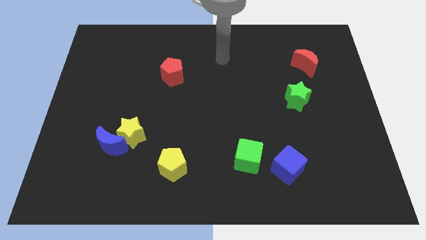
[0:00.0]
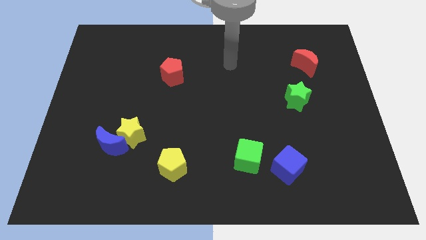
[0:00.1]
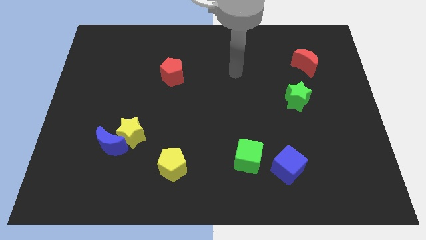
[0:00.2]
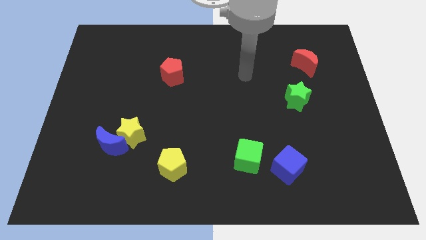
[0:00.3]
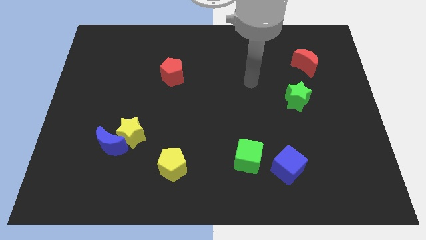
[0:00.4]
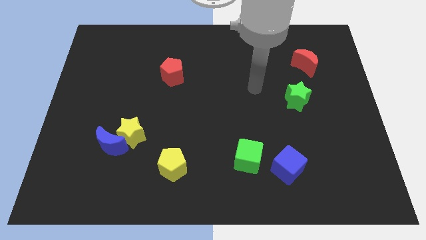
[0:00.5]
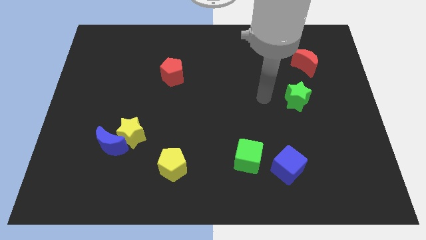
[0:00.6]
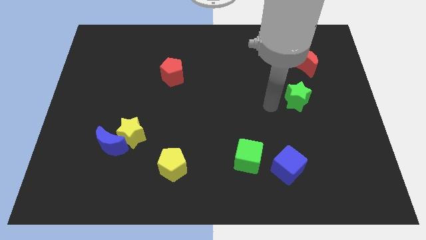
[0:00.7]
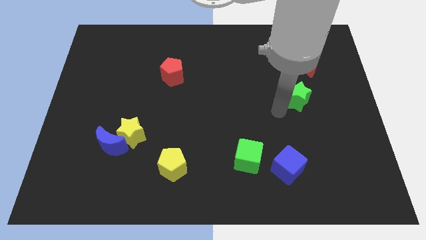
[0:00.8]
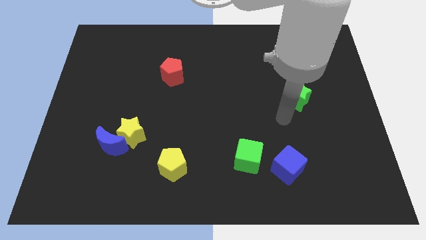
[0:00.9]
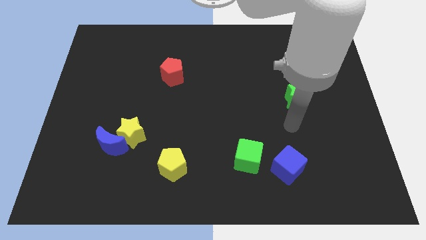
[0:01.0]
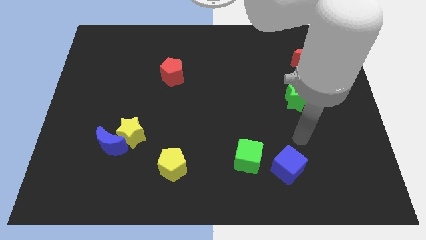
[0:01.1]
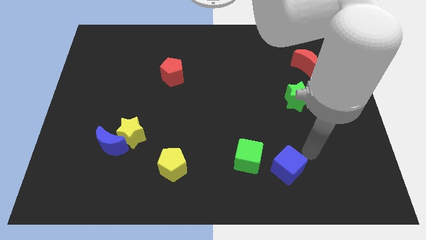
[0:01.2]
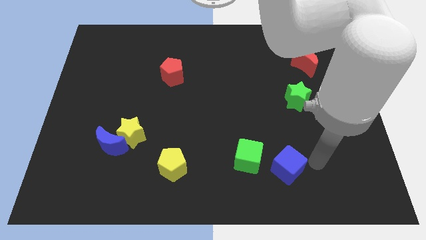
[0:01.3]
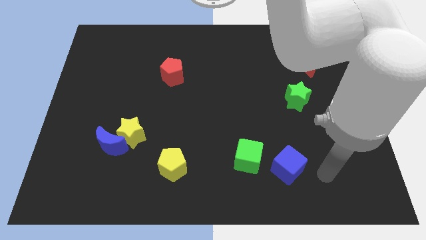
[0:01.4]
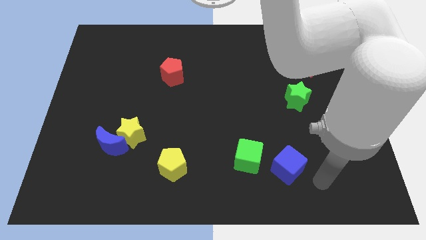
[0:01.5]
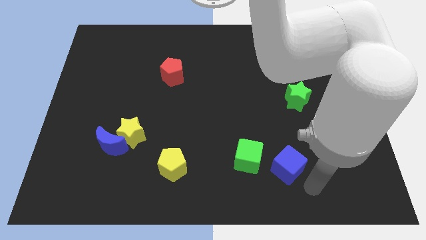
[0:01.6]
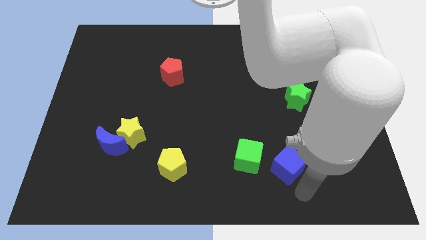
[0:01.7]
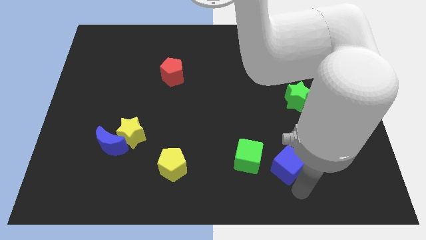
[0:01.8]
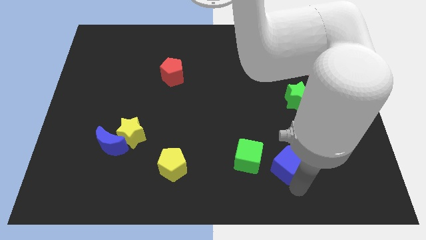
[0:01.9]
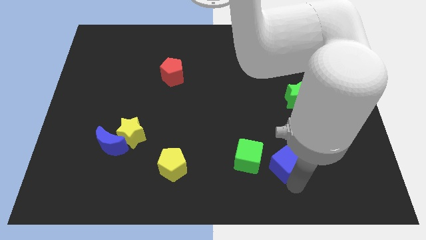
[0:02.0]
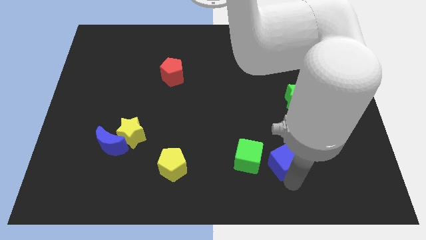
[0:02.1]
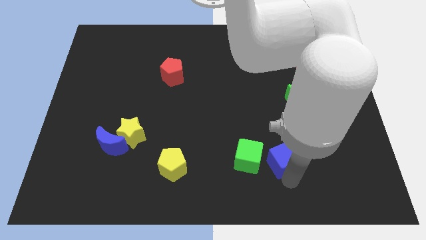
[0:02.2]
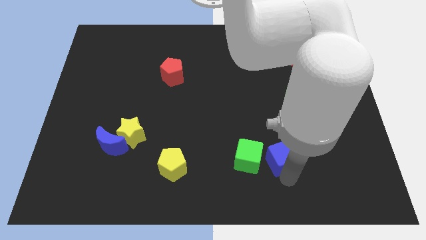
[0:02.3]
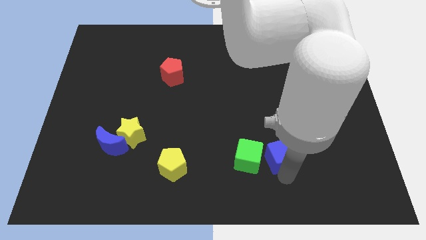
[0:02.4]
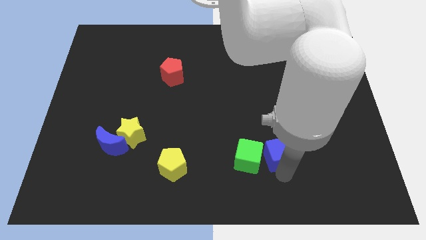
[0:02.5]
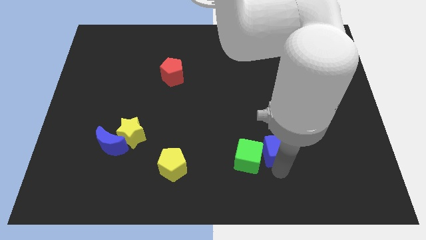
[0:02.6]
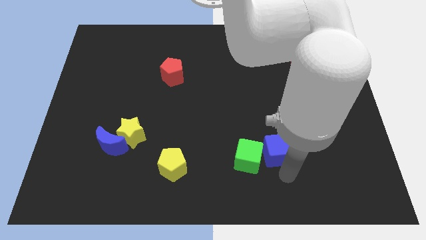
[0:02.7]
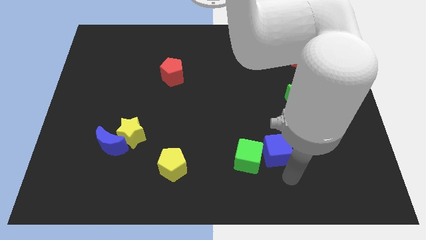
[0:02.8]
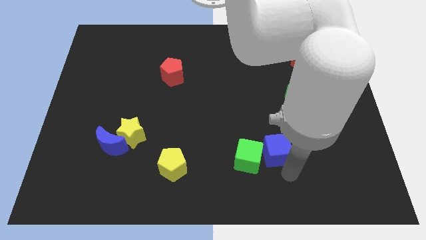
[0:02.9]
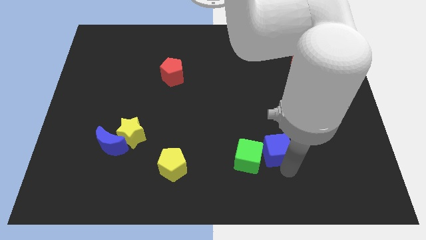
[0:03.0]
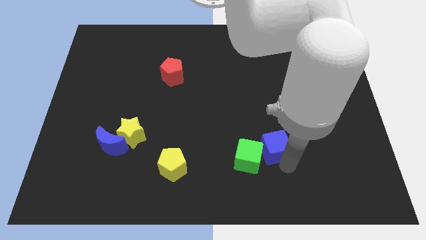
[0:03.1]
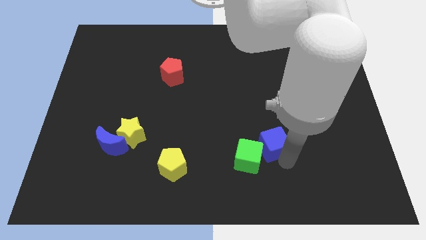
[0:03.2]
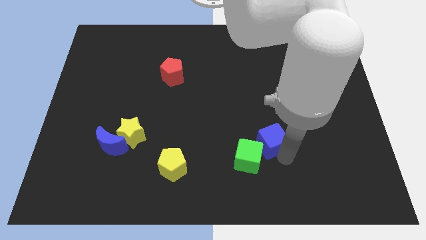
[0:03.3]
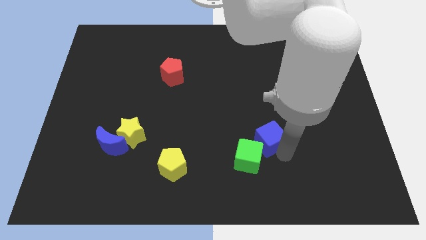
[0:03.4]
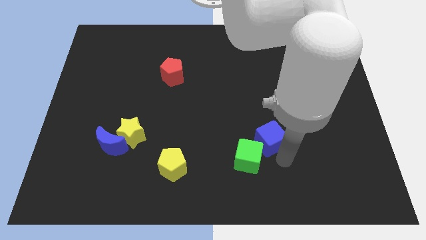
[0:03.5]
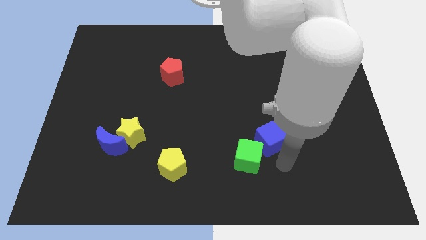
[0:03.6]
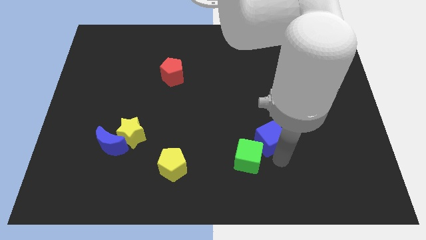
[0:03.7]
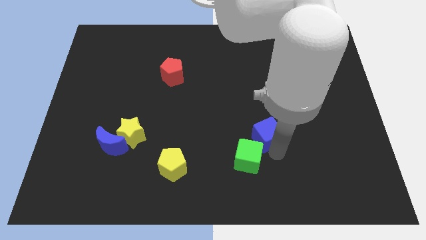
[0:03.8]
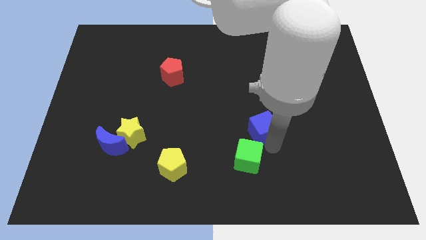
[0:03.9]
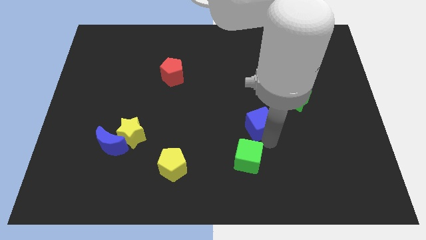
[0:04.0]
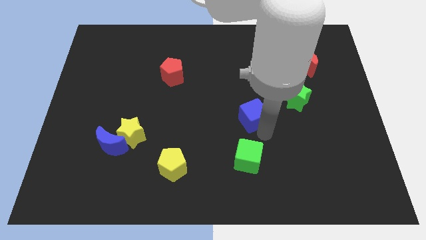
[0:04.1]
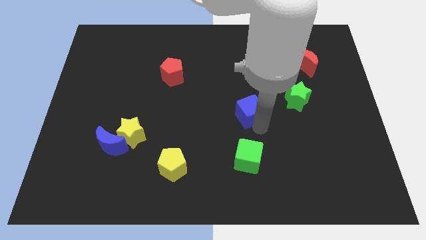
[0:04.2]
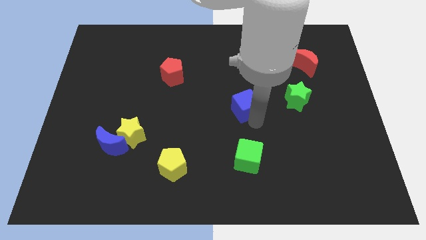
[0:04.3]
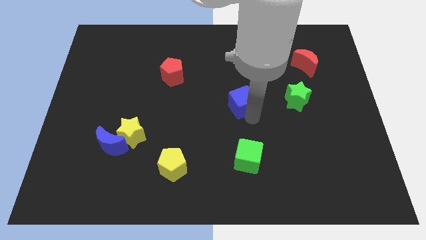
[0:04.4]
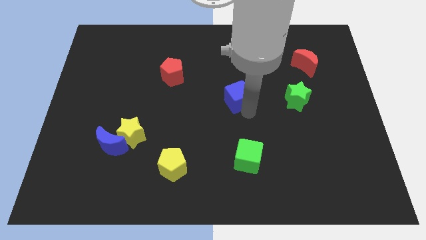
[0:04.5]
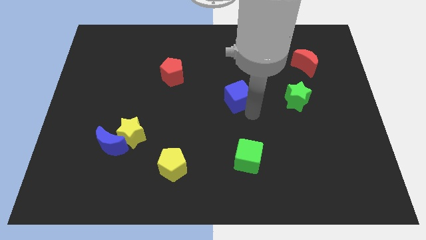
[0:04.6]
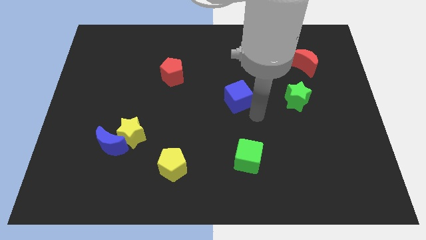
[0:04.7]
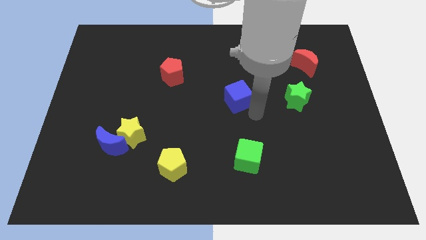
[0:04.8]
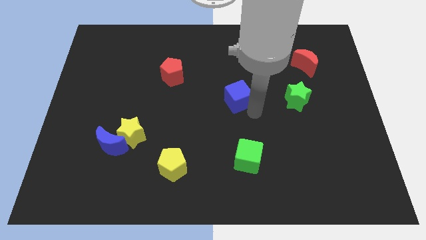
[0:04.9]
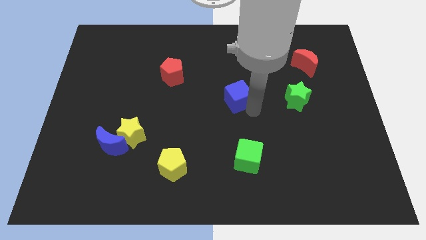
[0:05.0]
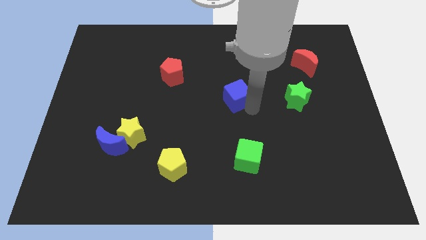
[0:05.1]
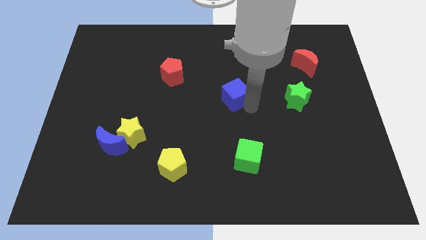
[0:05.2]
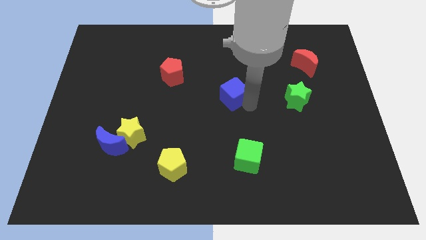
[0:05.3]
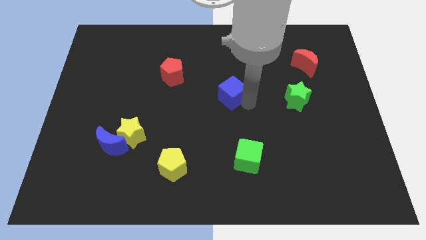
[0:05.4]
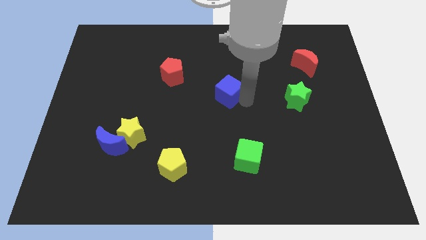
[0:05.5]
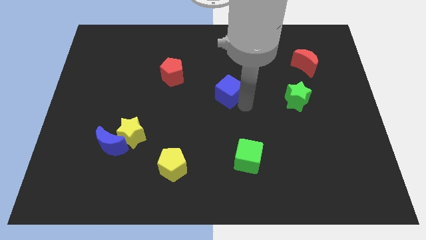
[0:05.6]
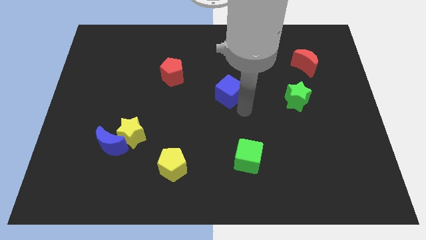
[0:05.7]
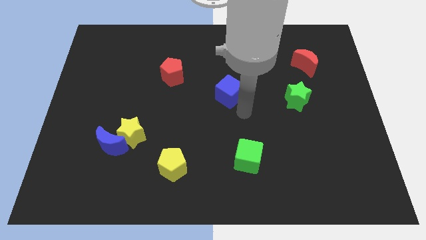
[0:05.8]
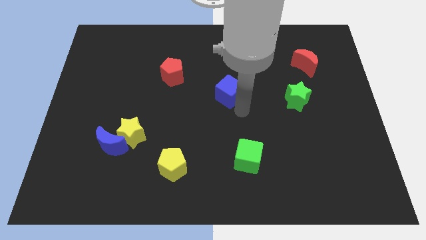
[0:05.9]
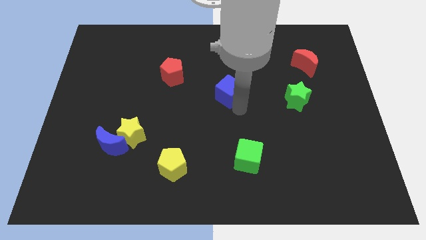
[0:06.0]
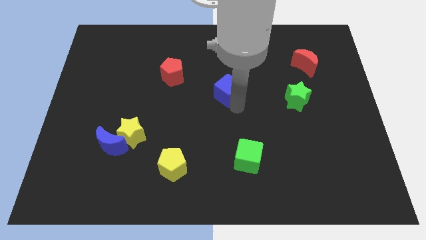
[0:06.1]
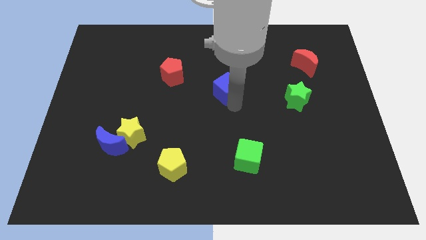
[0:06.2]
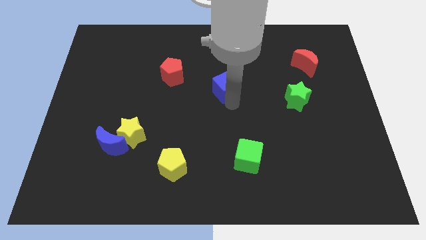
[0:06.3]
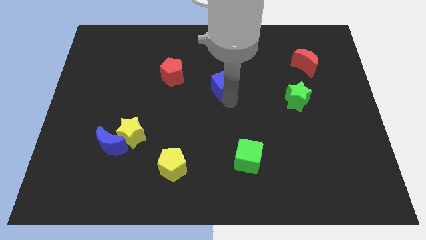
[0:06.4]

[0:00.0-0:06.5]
push the blue cube to the right of the red pentagon

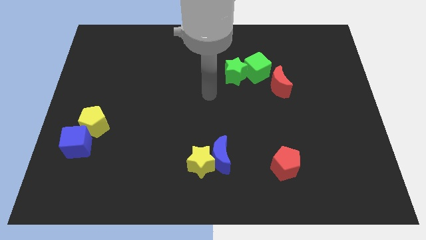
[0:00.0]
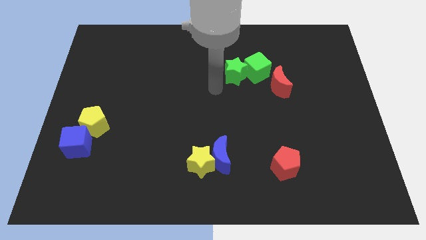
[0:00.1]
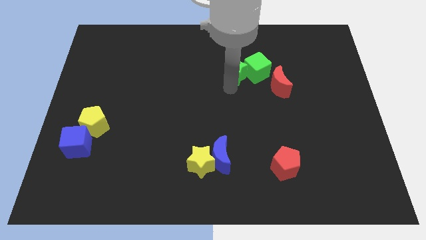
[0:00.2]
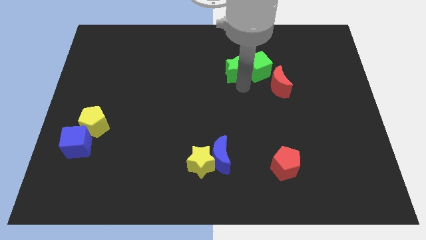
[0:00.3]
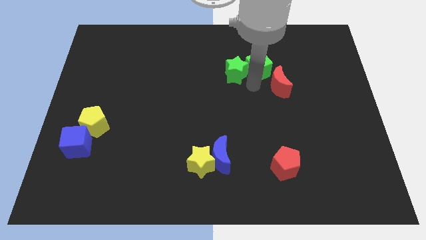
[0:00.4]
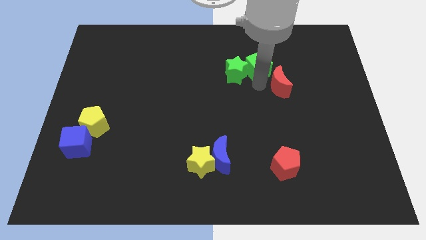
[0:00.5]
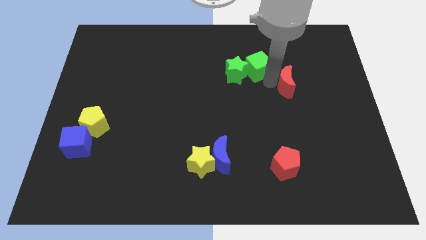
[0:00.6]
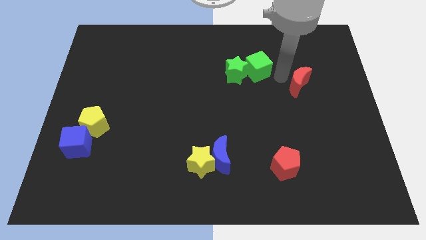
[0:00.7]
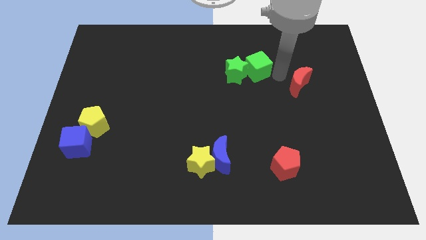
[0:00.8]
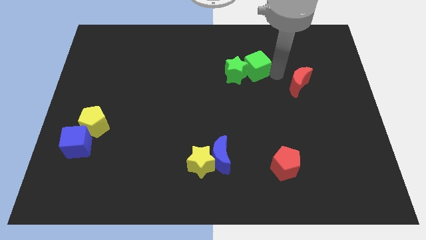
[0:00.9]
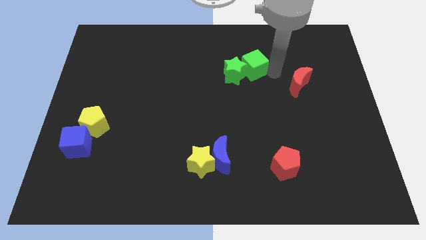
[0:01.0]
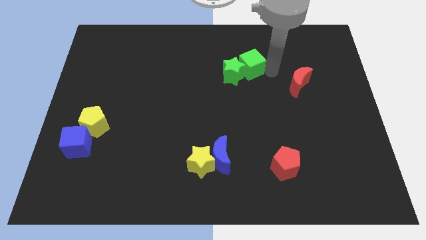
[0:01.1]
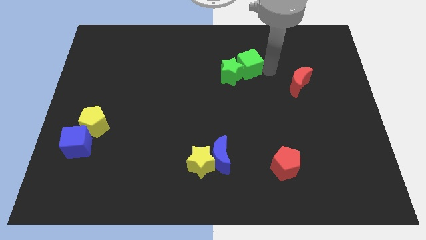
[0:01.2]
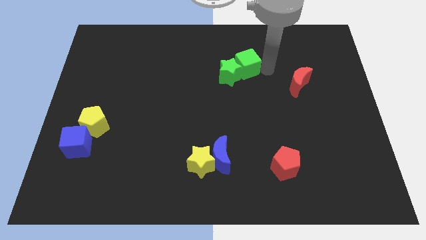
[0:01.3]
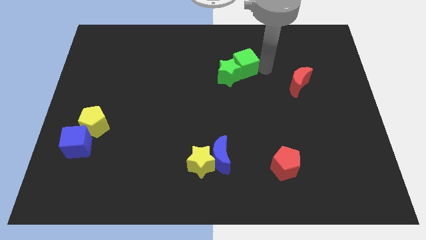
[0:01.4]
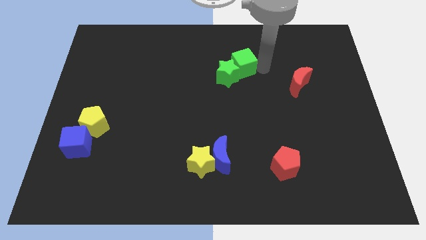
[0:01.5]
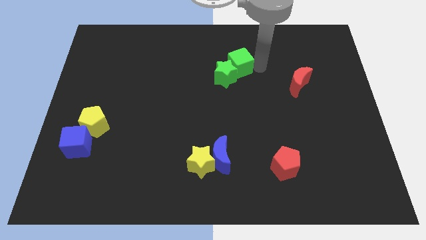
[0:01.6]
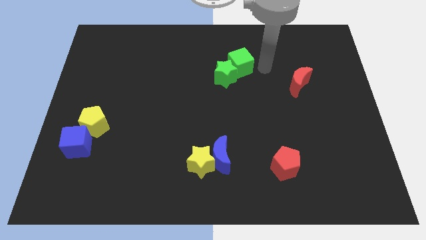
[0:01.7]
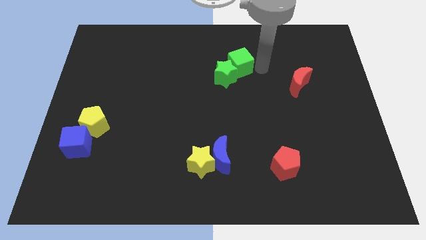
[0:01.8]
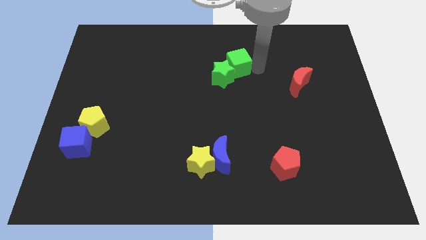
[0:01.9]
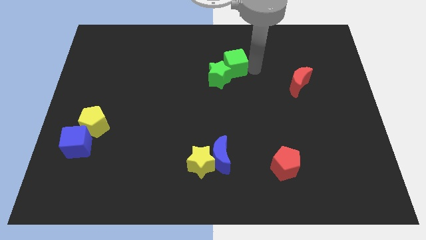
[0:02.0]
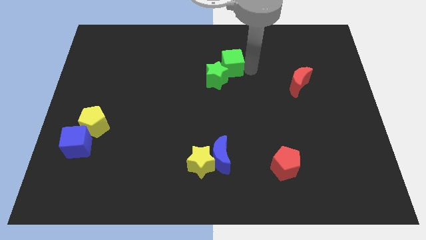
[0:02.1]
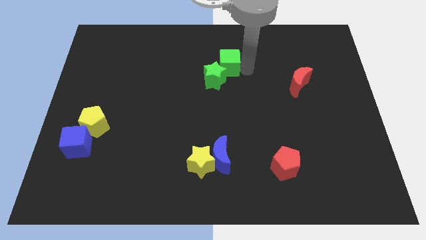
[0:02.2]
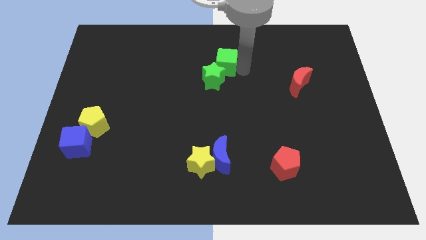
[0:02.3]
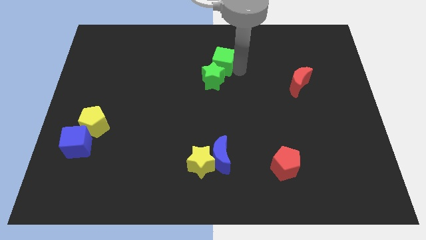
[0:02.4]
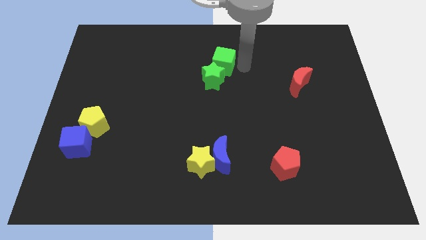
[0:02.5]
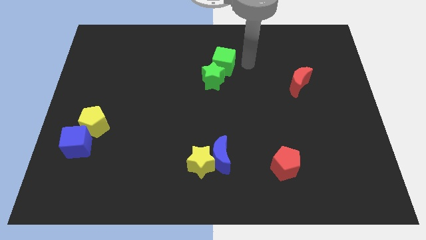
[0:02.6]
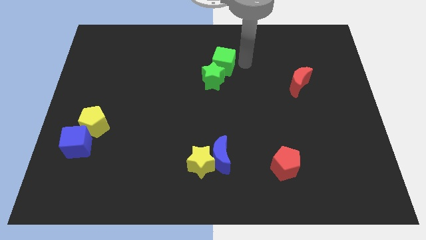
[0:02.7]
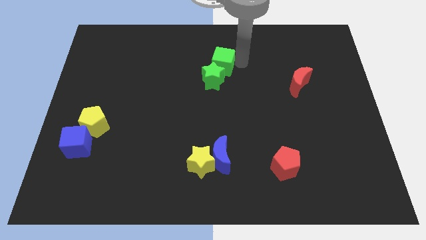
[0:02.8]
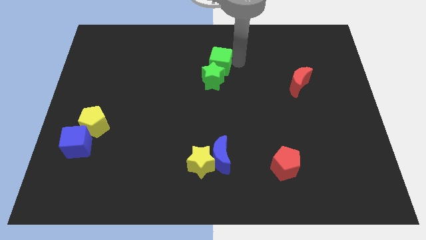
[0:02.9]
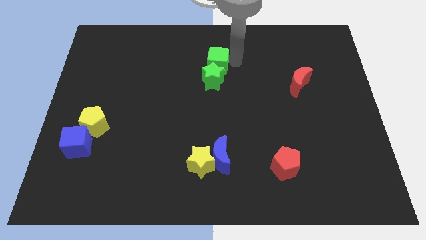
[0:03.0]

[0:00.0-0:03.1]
push the green cube diagonally up and to the left of the green star
